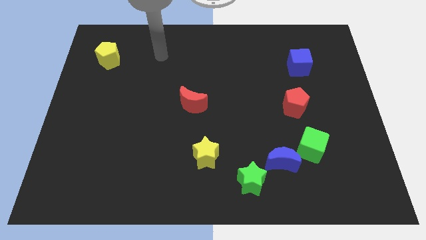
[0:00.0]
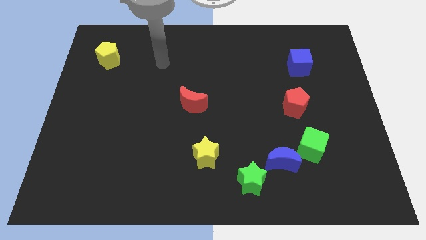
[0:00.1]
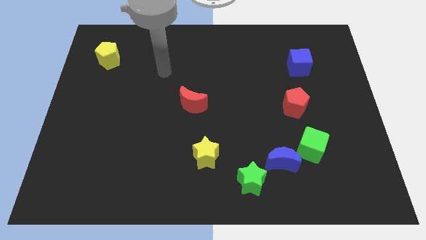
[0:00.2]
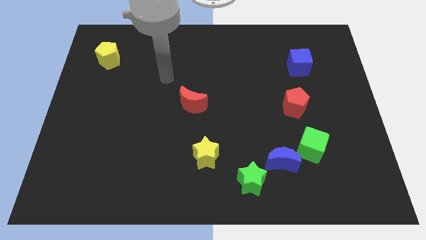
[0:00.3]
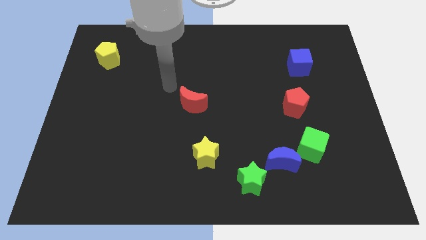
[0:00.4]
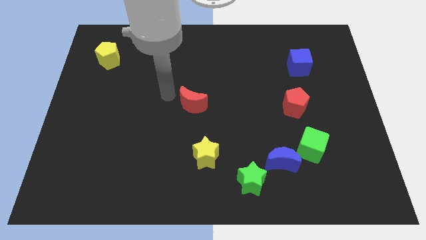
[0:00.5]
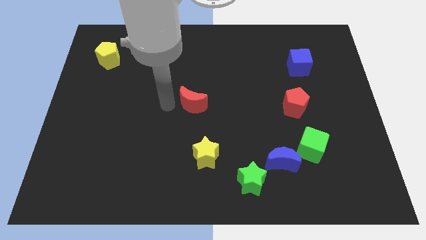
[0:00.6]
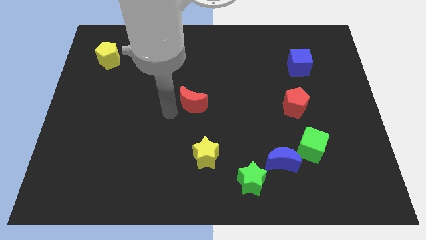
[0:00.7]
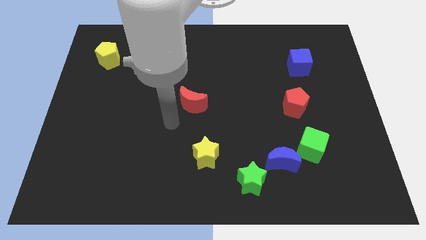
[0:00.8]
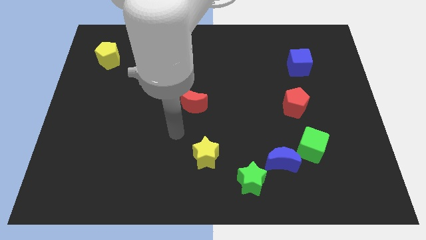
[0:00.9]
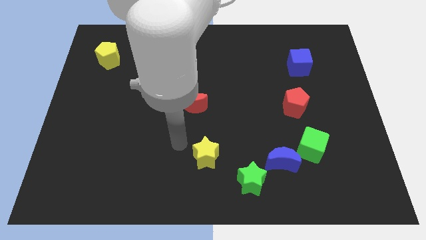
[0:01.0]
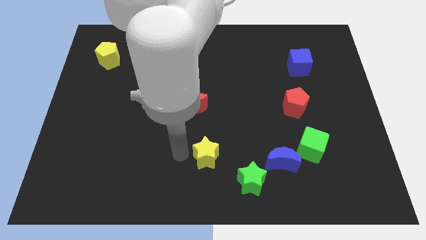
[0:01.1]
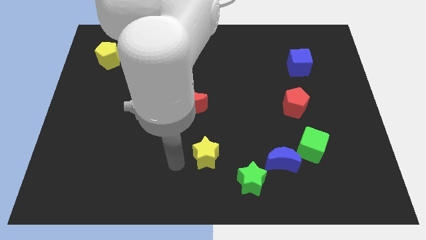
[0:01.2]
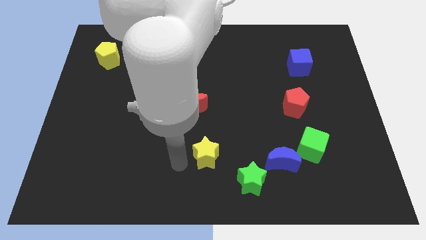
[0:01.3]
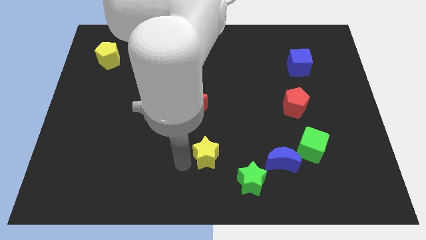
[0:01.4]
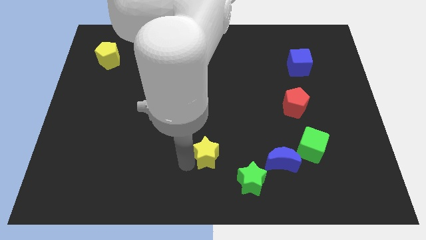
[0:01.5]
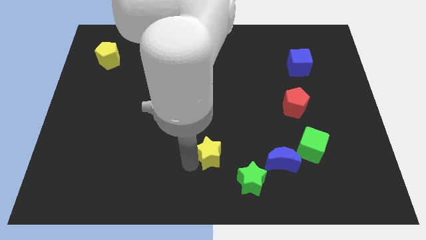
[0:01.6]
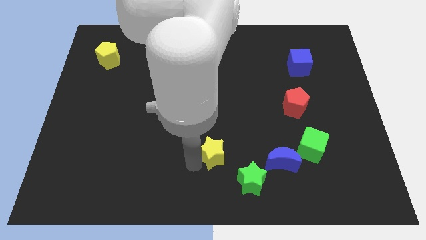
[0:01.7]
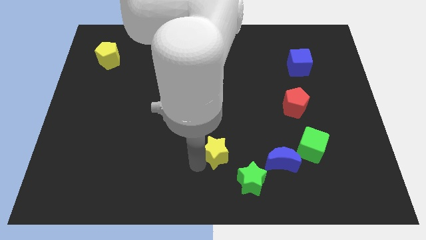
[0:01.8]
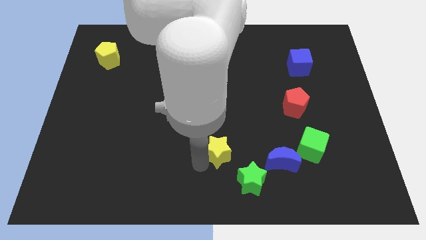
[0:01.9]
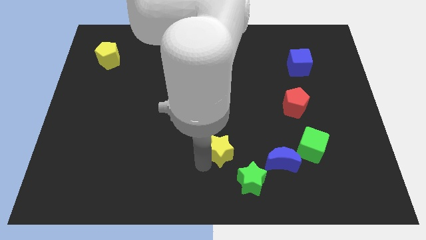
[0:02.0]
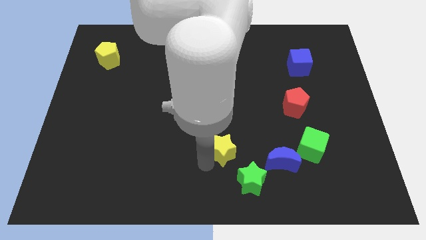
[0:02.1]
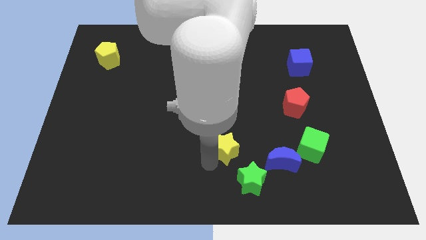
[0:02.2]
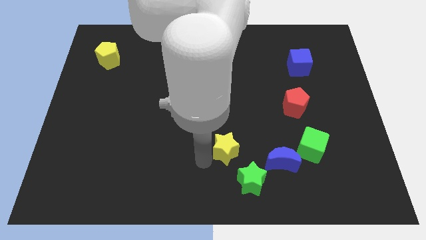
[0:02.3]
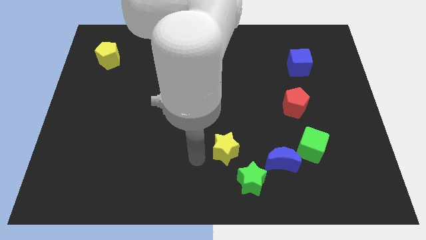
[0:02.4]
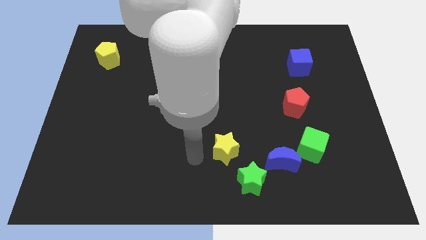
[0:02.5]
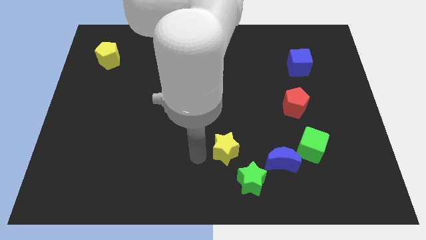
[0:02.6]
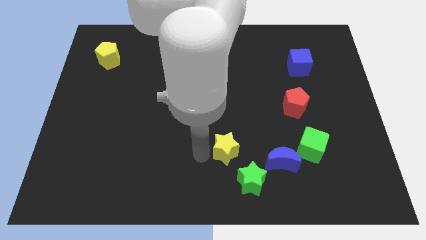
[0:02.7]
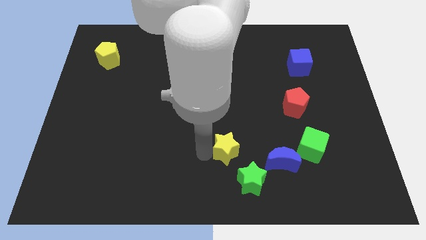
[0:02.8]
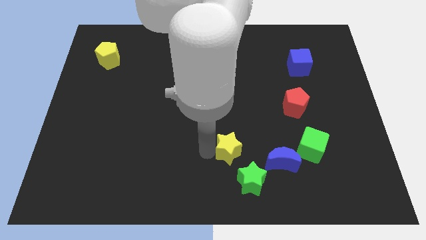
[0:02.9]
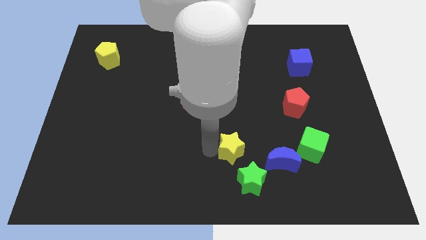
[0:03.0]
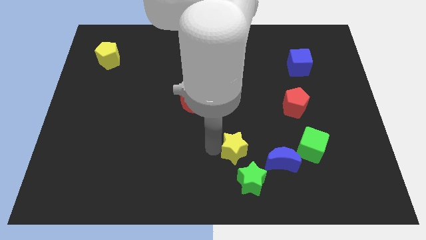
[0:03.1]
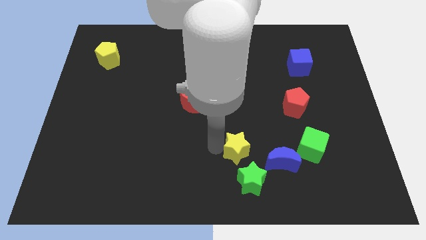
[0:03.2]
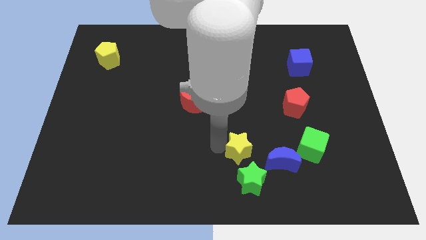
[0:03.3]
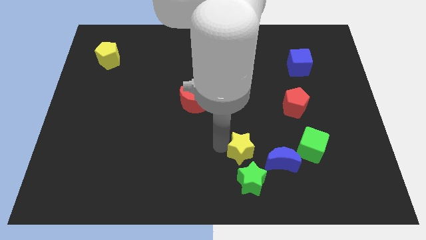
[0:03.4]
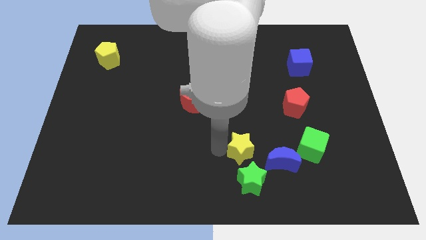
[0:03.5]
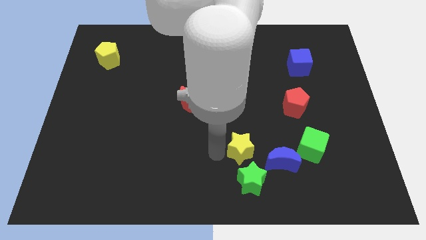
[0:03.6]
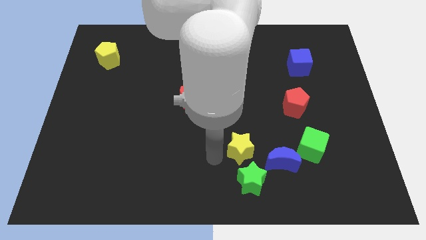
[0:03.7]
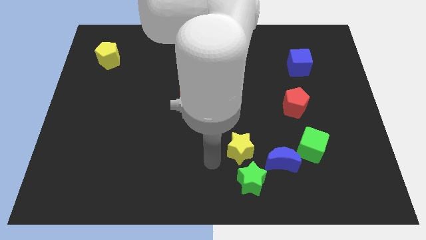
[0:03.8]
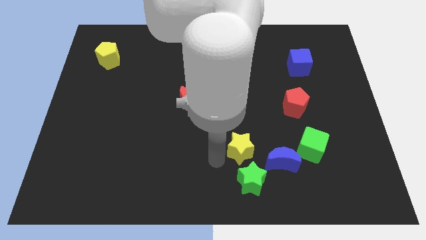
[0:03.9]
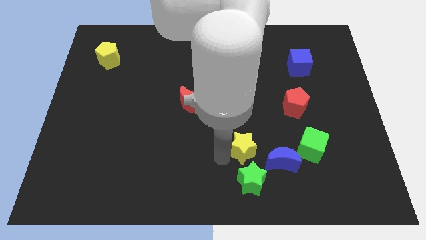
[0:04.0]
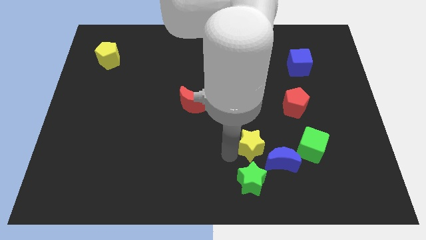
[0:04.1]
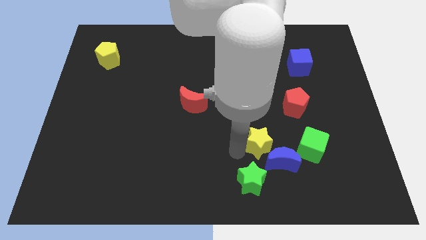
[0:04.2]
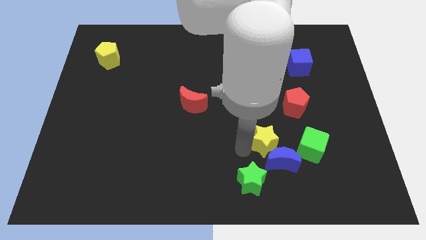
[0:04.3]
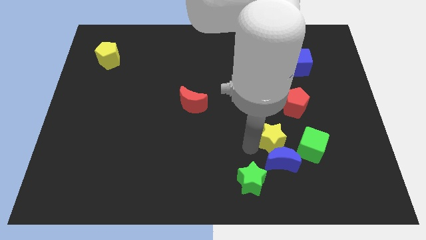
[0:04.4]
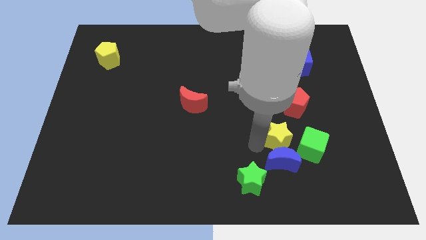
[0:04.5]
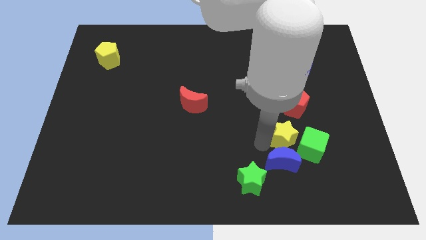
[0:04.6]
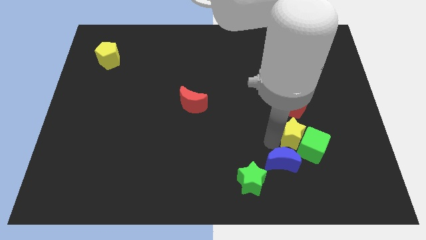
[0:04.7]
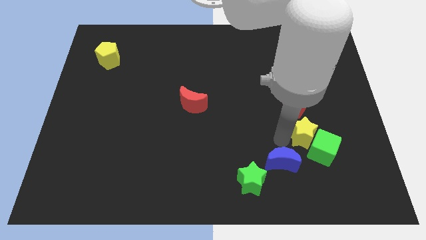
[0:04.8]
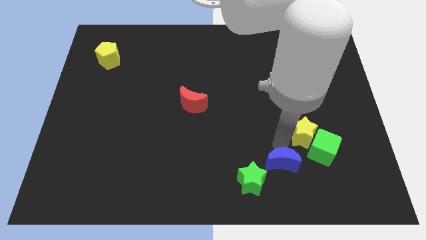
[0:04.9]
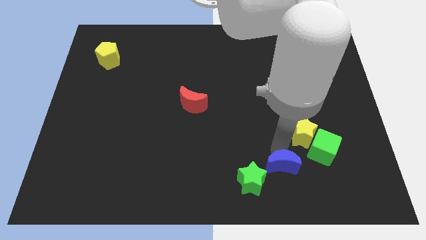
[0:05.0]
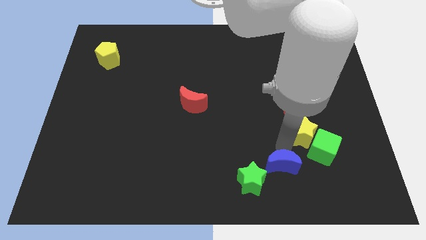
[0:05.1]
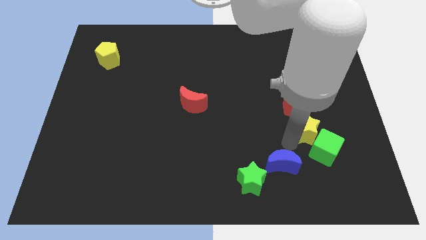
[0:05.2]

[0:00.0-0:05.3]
slide the yellow star diagonally down and to the right of the red pentagon

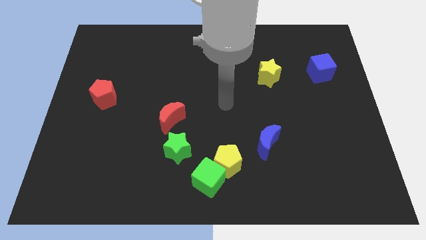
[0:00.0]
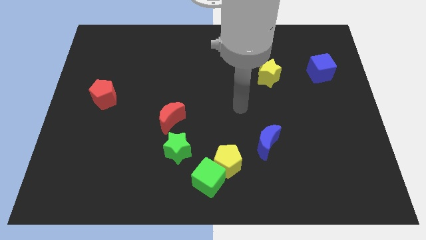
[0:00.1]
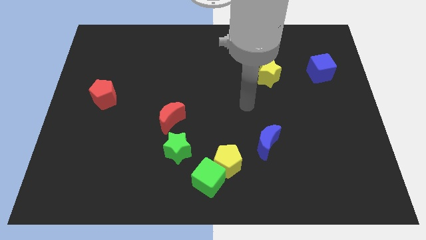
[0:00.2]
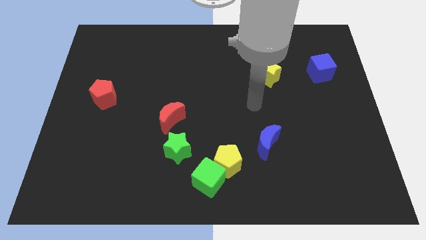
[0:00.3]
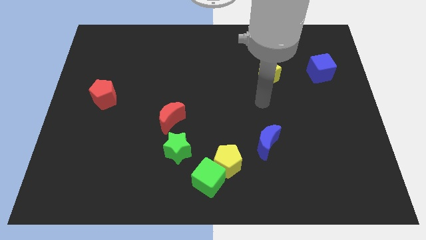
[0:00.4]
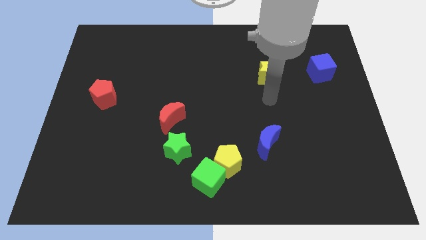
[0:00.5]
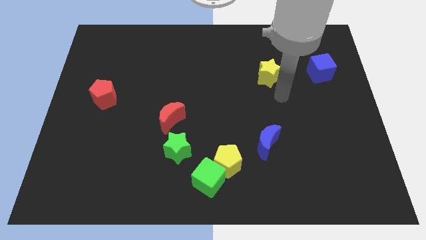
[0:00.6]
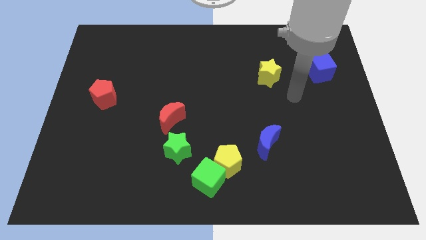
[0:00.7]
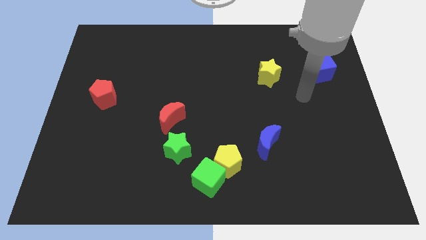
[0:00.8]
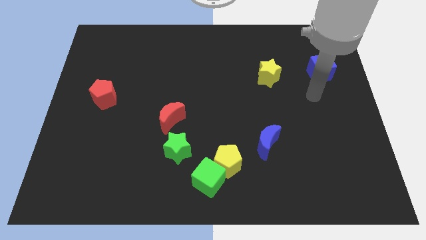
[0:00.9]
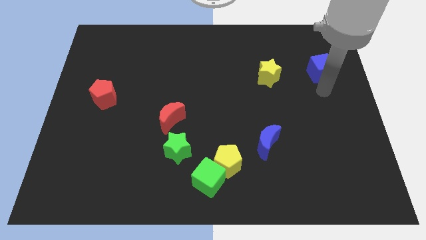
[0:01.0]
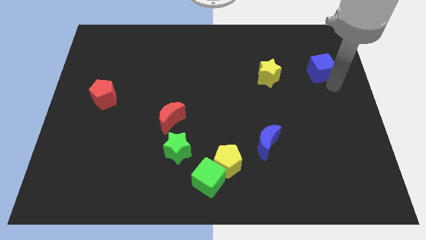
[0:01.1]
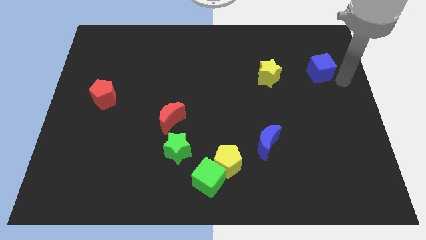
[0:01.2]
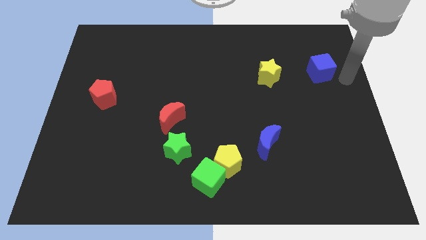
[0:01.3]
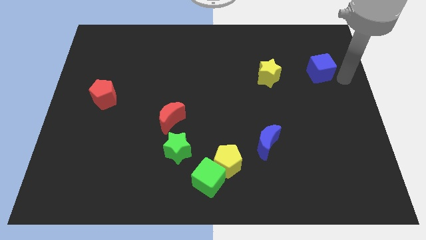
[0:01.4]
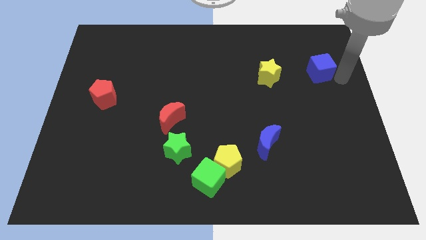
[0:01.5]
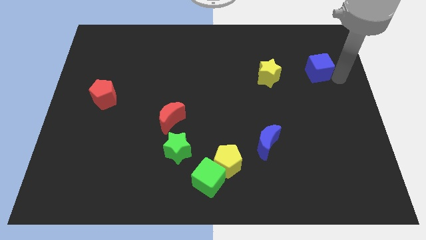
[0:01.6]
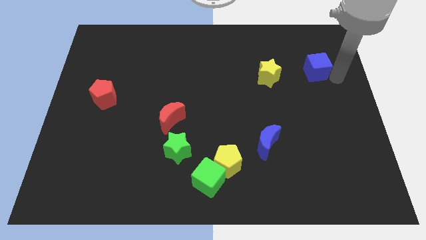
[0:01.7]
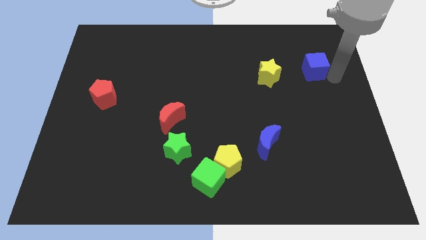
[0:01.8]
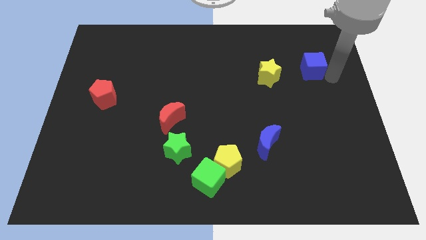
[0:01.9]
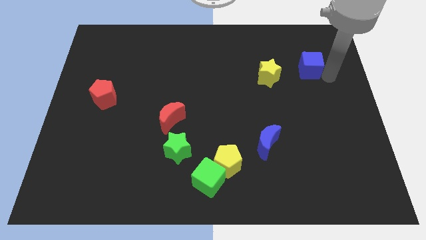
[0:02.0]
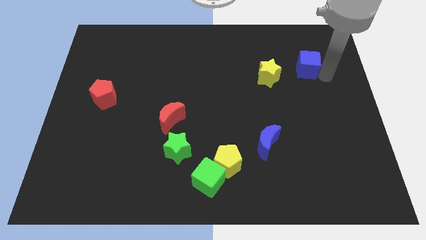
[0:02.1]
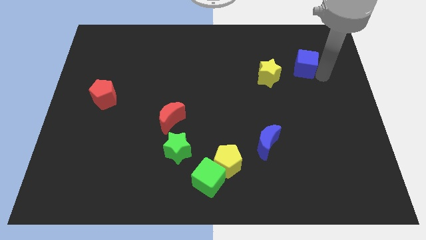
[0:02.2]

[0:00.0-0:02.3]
move the blue cube diagonally up and to the right of the yellow star
